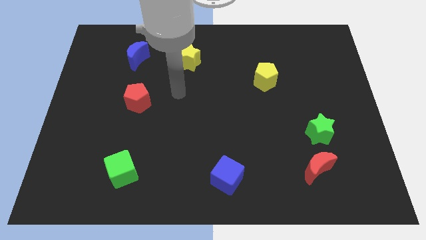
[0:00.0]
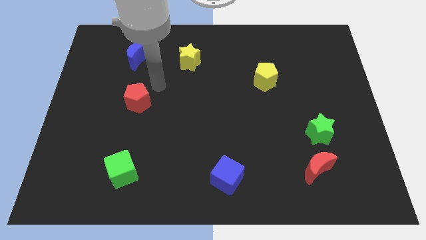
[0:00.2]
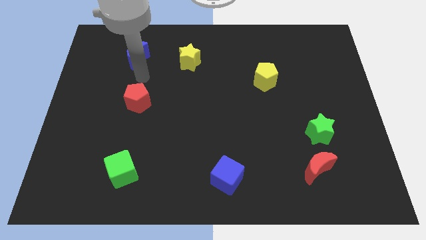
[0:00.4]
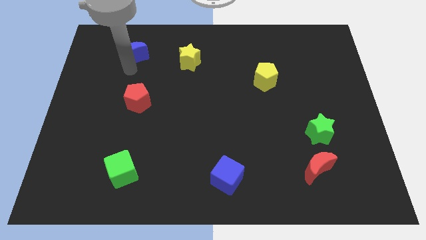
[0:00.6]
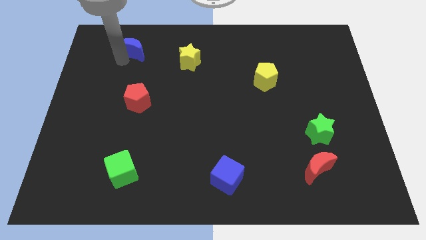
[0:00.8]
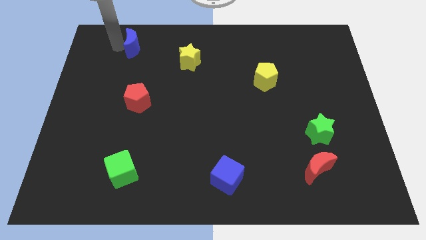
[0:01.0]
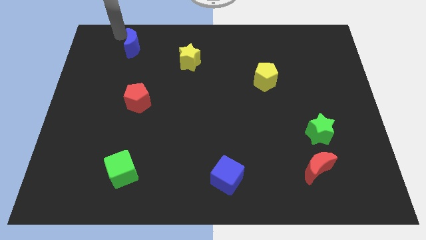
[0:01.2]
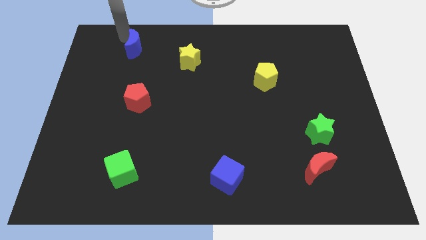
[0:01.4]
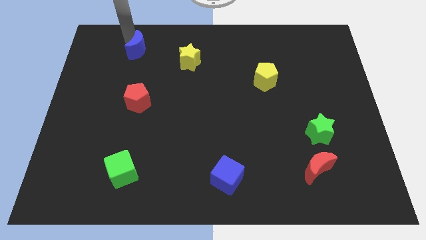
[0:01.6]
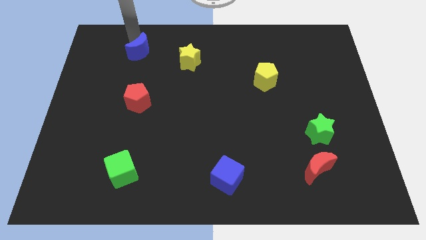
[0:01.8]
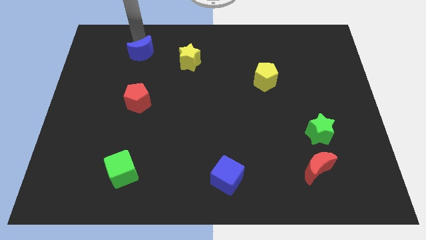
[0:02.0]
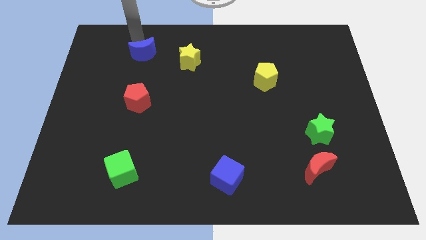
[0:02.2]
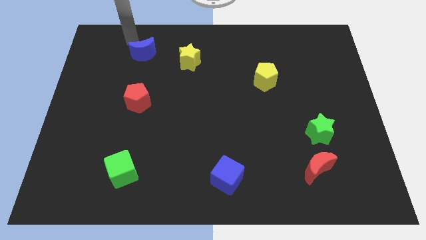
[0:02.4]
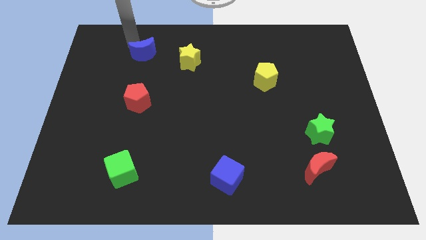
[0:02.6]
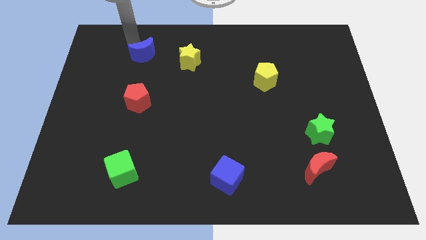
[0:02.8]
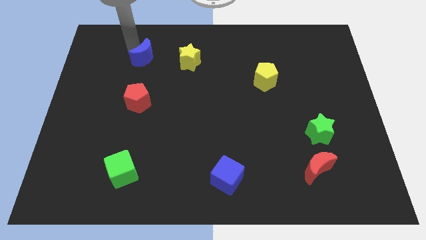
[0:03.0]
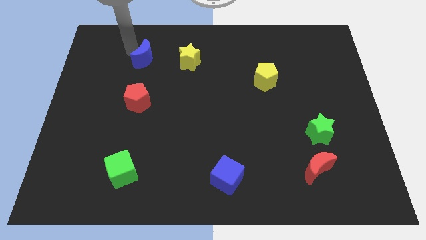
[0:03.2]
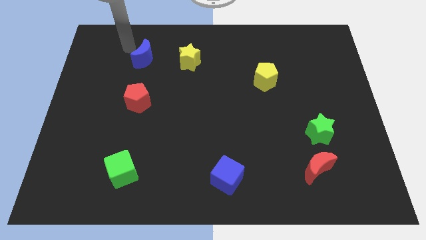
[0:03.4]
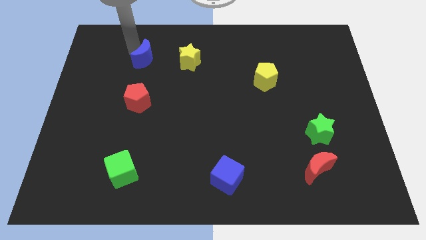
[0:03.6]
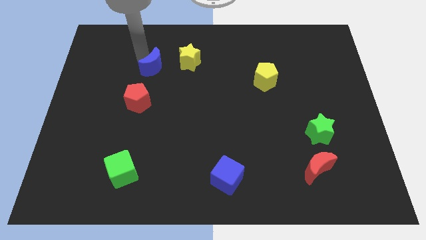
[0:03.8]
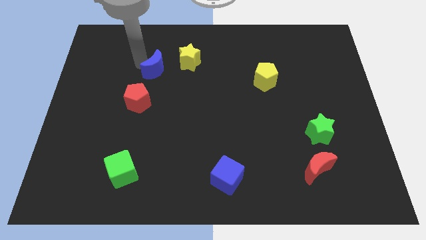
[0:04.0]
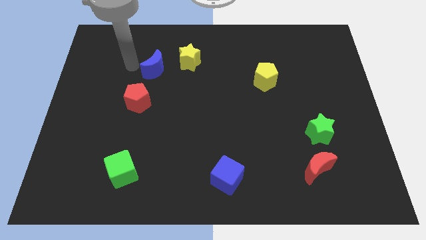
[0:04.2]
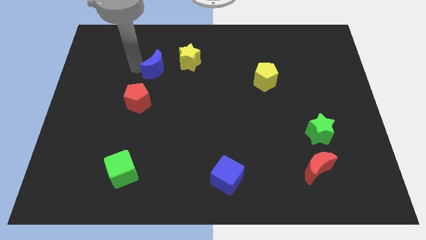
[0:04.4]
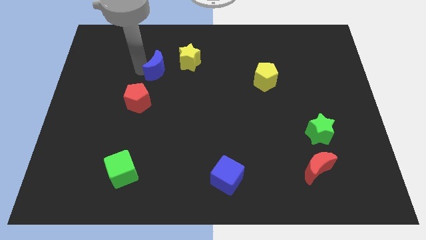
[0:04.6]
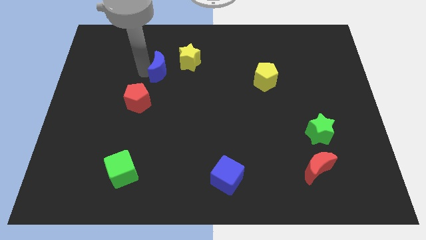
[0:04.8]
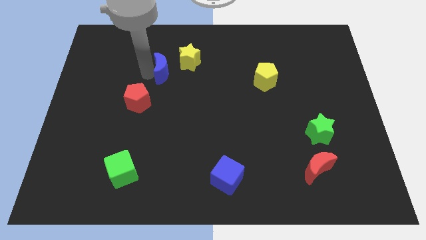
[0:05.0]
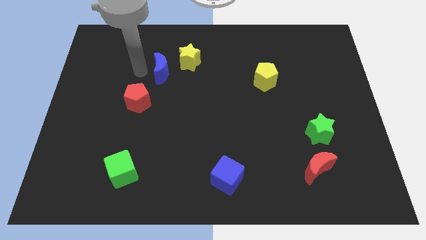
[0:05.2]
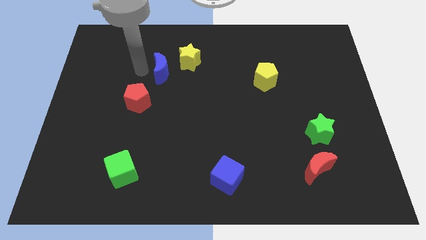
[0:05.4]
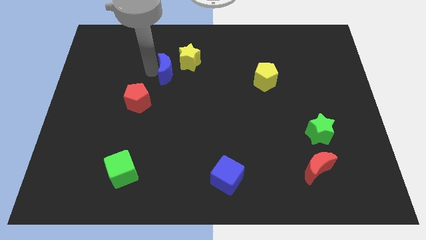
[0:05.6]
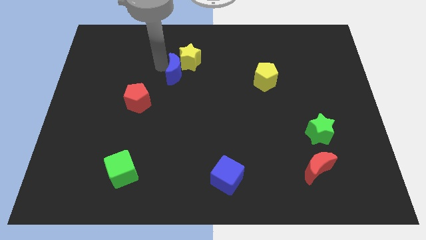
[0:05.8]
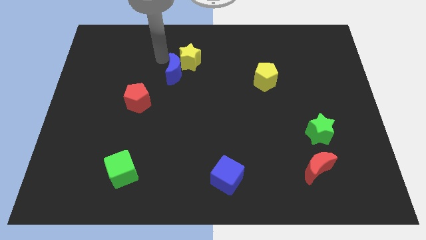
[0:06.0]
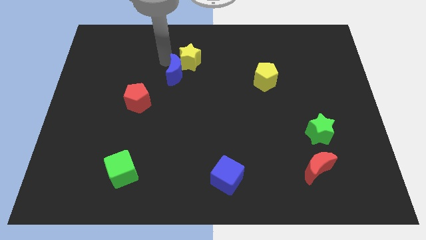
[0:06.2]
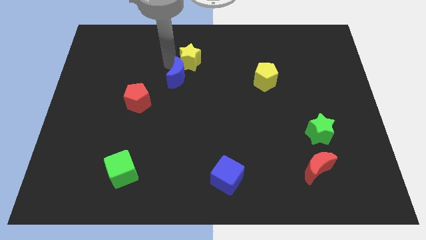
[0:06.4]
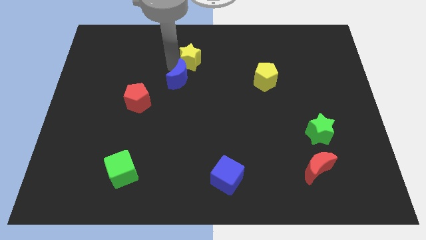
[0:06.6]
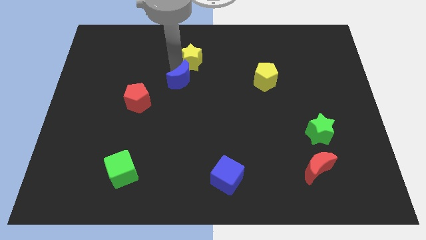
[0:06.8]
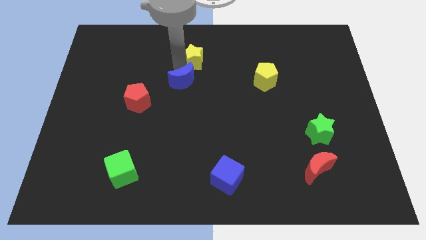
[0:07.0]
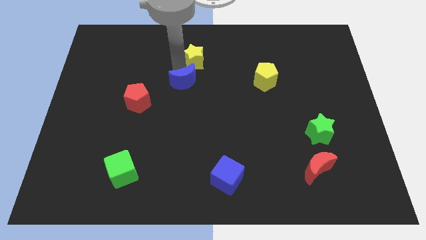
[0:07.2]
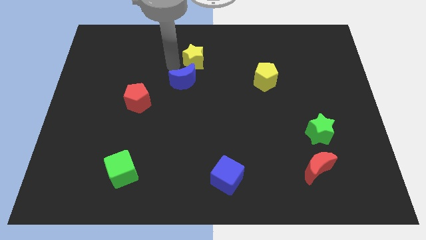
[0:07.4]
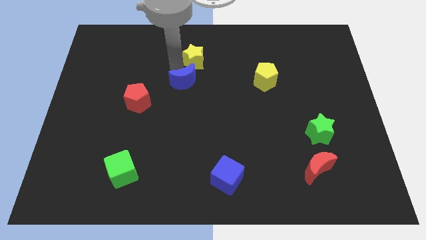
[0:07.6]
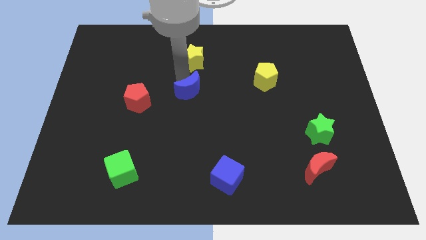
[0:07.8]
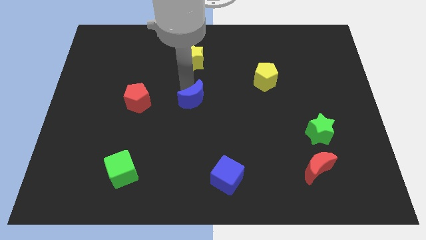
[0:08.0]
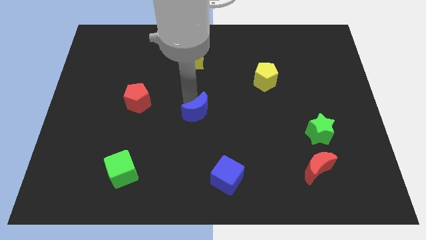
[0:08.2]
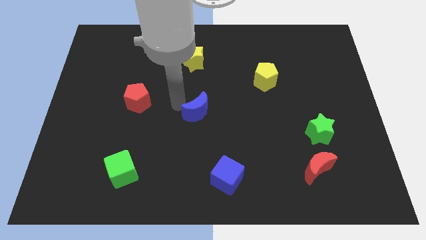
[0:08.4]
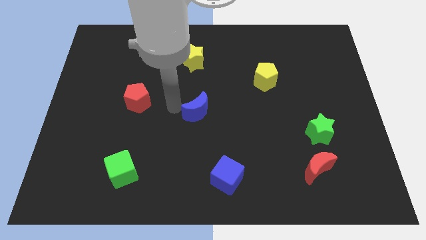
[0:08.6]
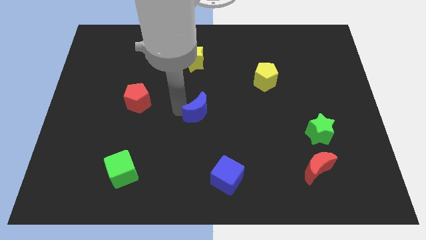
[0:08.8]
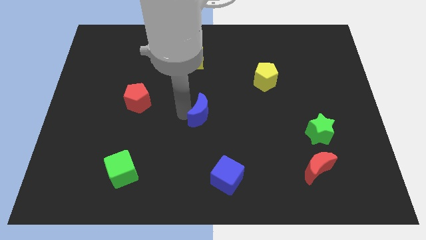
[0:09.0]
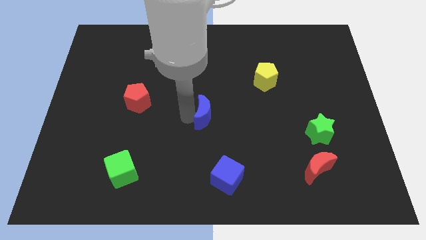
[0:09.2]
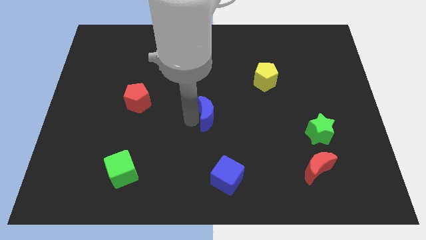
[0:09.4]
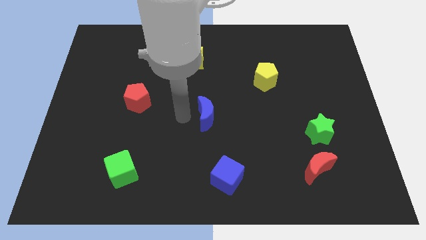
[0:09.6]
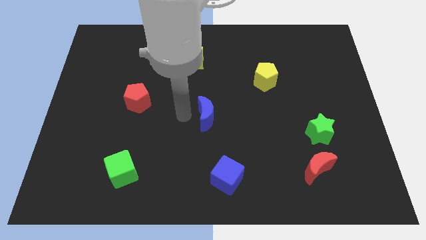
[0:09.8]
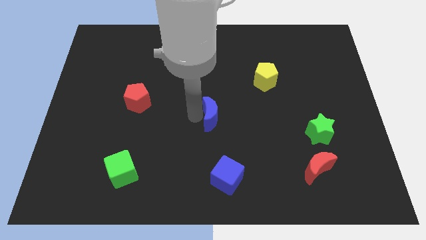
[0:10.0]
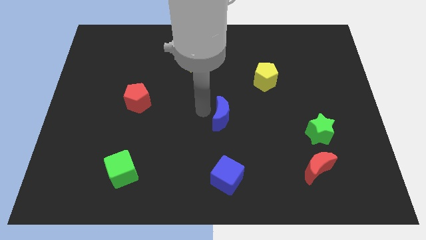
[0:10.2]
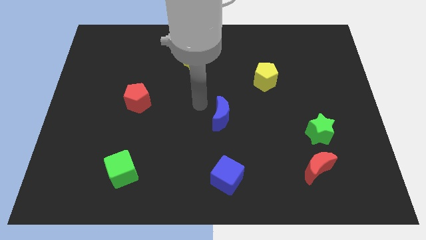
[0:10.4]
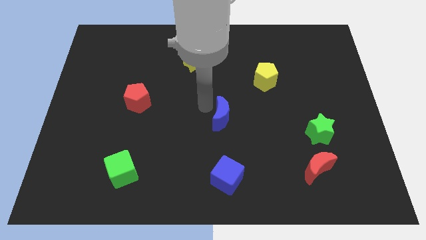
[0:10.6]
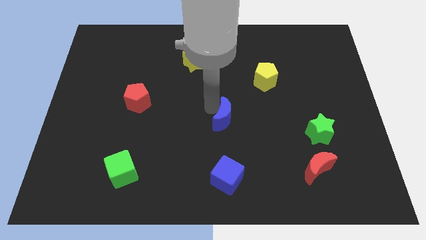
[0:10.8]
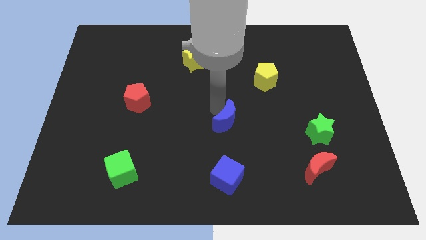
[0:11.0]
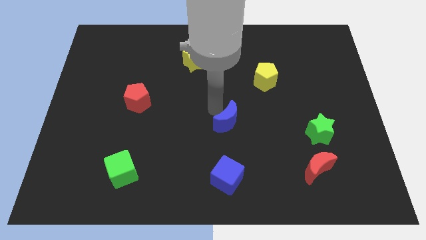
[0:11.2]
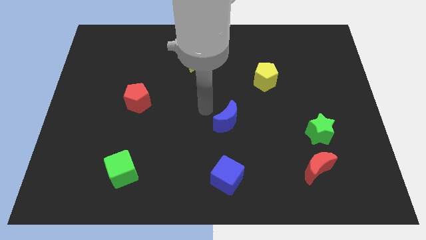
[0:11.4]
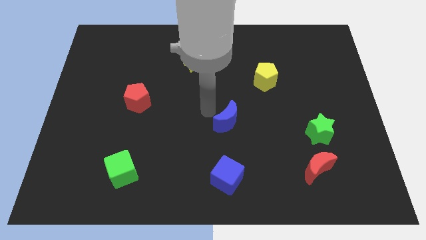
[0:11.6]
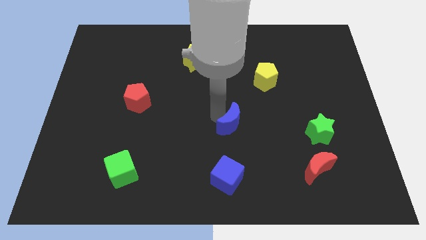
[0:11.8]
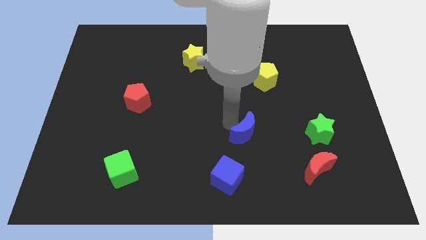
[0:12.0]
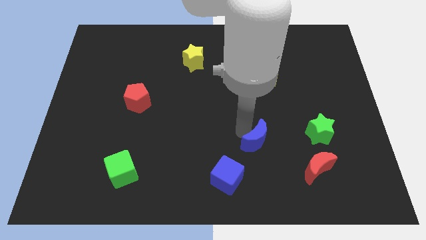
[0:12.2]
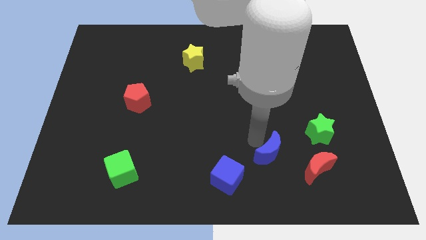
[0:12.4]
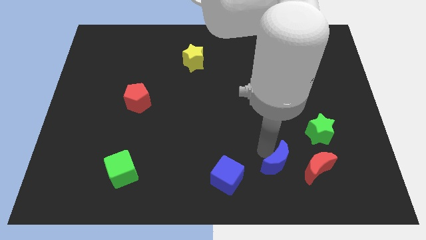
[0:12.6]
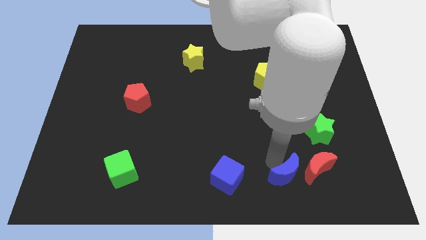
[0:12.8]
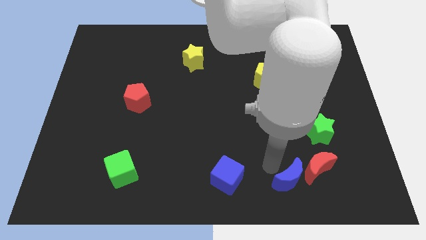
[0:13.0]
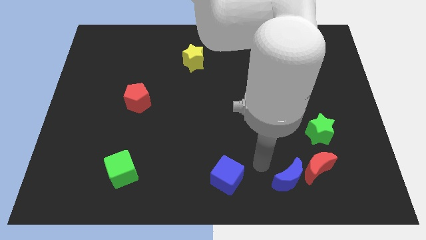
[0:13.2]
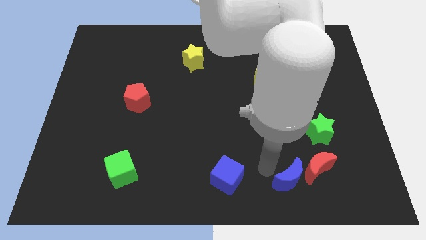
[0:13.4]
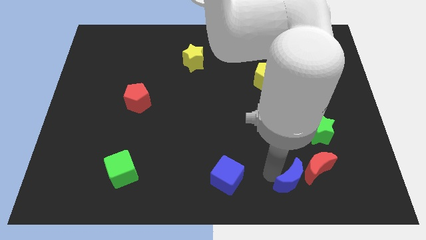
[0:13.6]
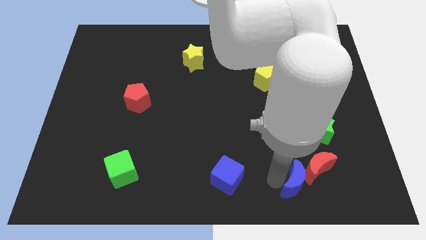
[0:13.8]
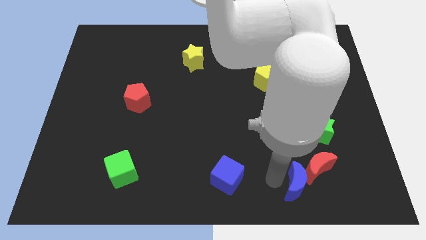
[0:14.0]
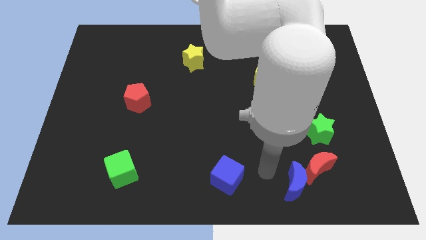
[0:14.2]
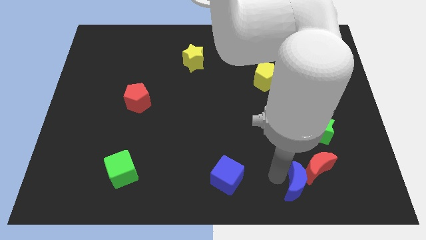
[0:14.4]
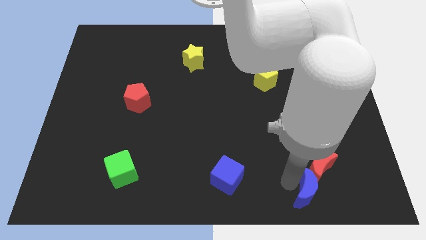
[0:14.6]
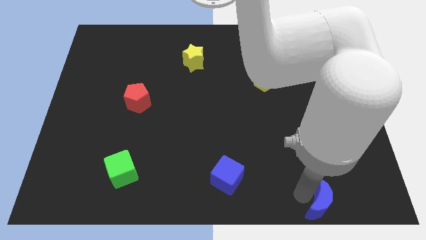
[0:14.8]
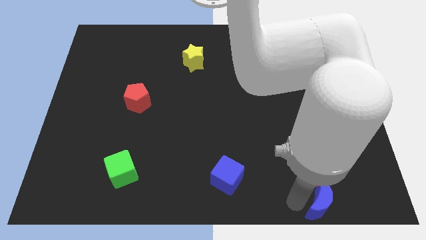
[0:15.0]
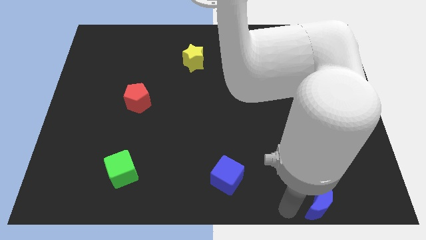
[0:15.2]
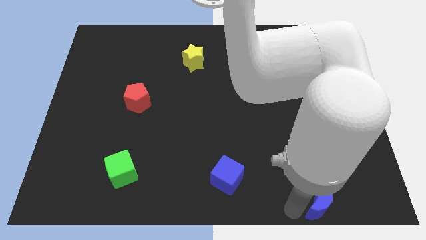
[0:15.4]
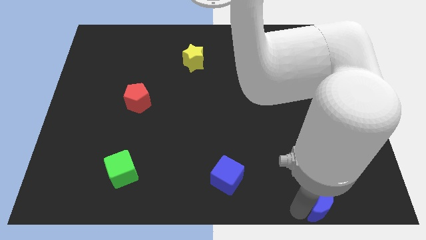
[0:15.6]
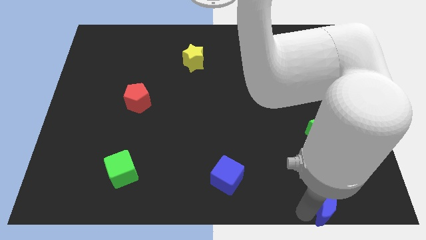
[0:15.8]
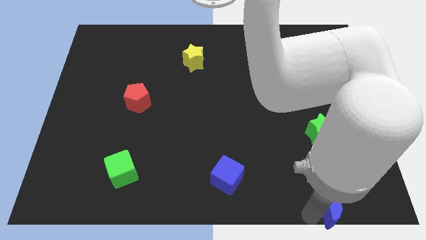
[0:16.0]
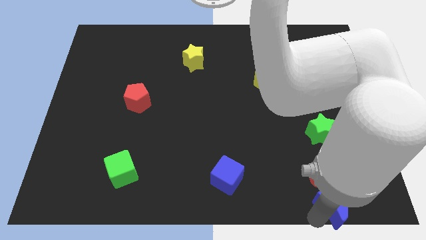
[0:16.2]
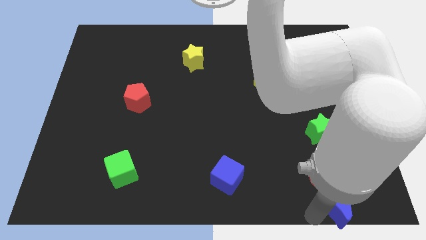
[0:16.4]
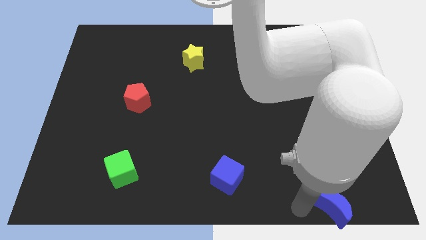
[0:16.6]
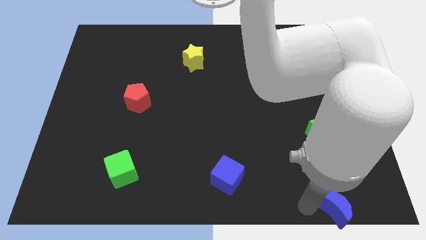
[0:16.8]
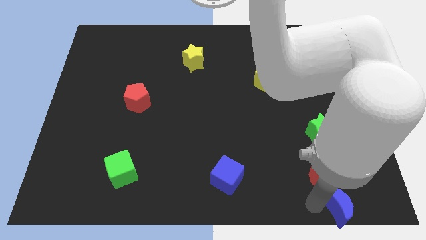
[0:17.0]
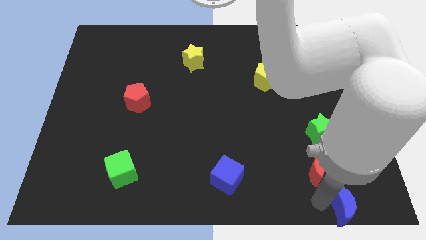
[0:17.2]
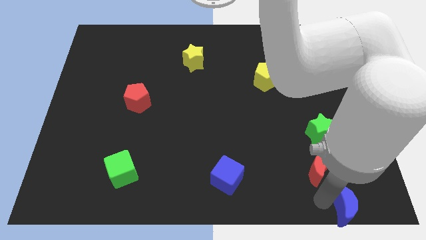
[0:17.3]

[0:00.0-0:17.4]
slide the blue moon to the bottom right of the board
